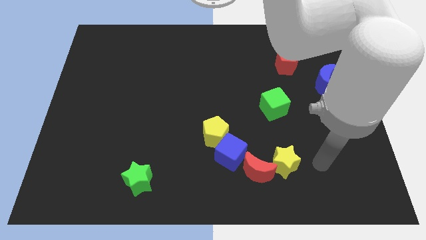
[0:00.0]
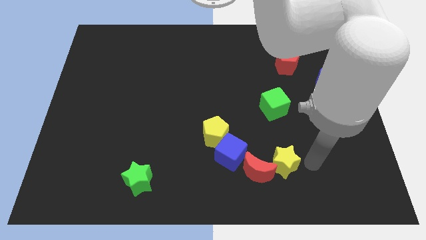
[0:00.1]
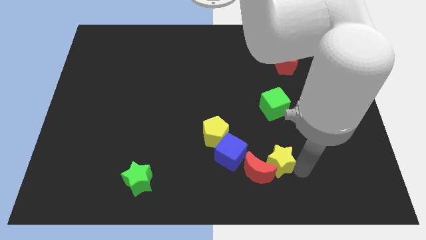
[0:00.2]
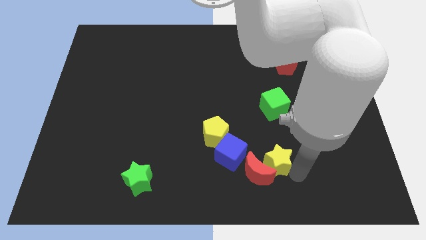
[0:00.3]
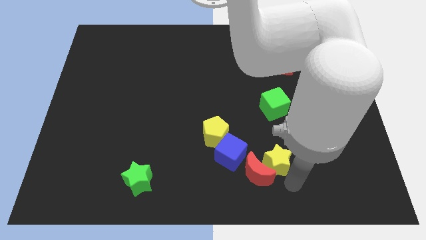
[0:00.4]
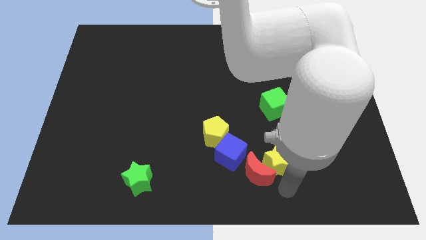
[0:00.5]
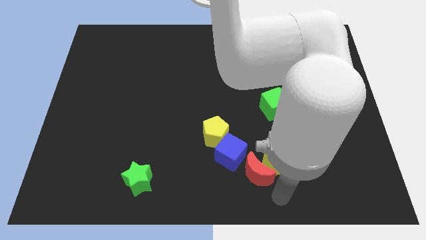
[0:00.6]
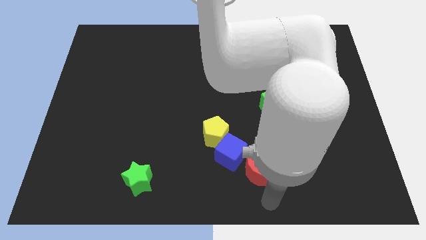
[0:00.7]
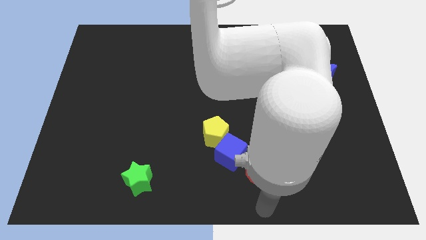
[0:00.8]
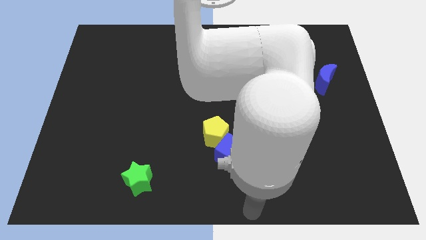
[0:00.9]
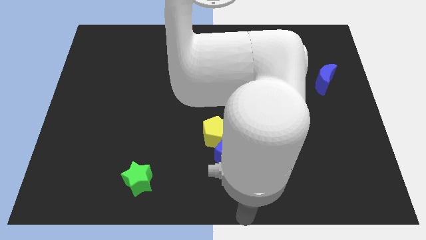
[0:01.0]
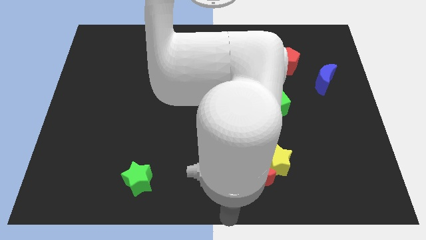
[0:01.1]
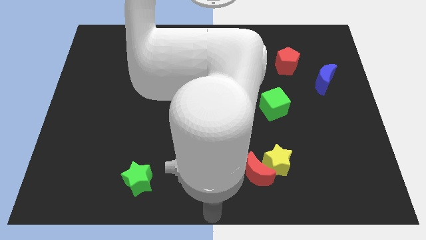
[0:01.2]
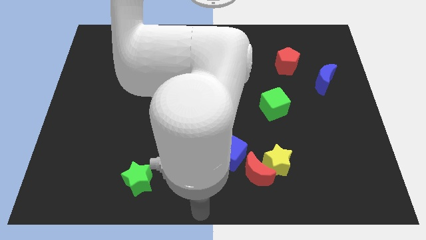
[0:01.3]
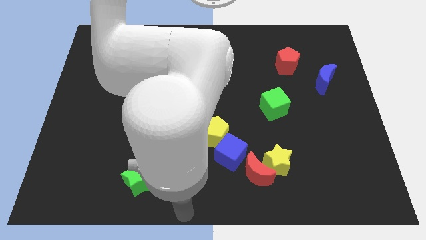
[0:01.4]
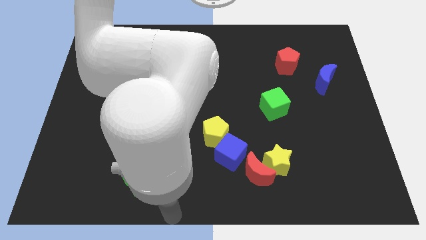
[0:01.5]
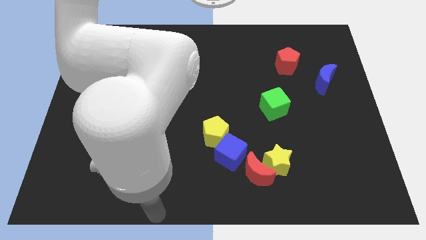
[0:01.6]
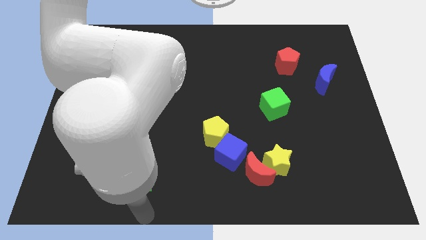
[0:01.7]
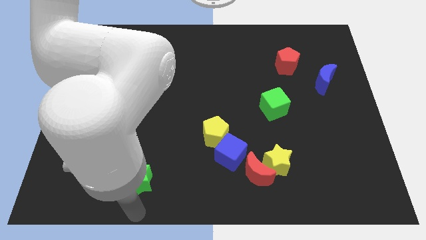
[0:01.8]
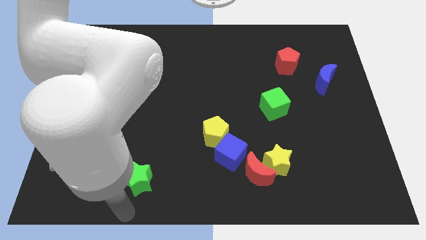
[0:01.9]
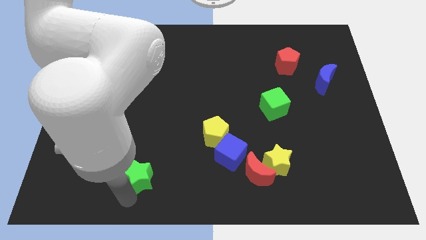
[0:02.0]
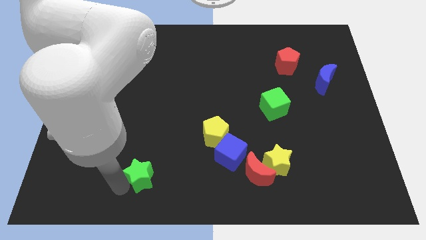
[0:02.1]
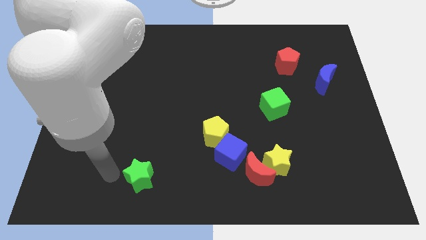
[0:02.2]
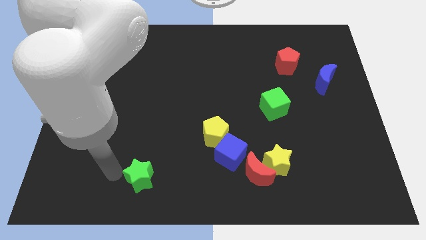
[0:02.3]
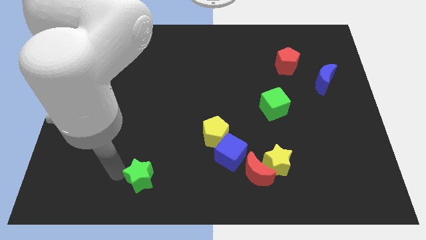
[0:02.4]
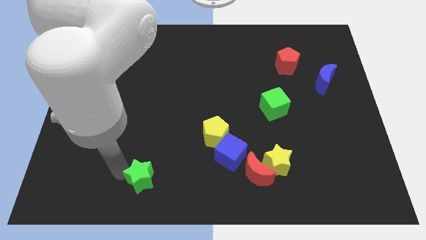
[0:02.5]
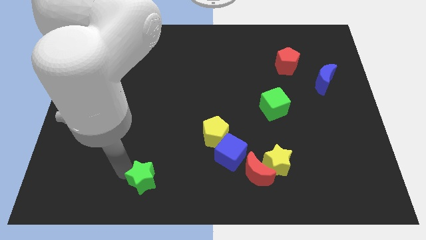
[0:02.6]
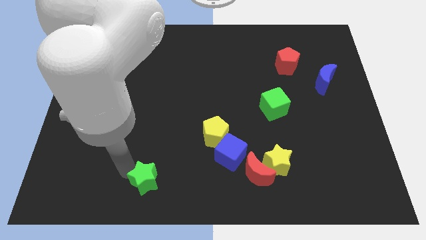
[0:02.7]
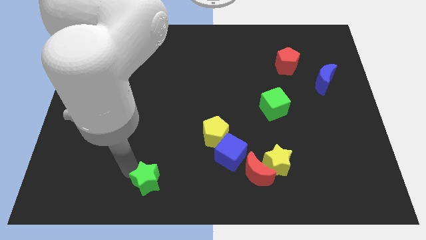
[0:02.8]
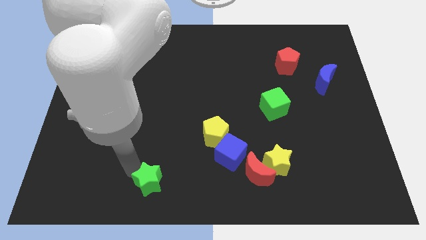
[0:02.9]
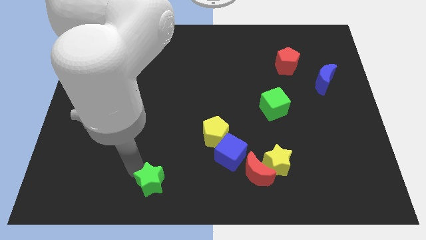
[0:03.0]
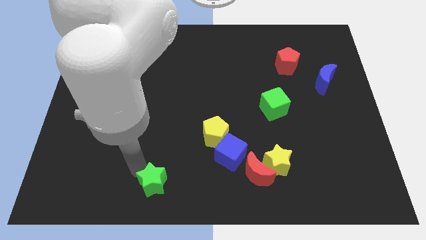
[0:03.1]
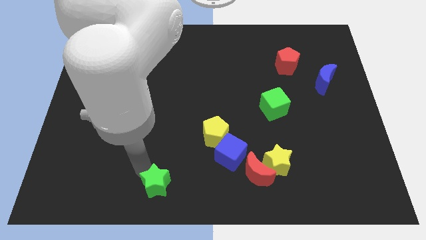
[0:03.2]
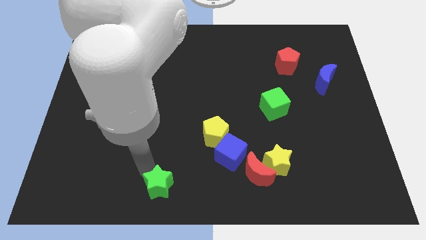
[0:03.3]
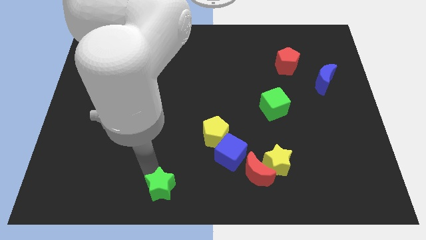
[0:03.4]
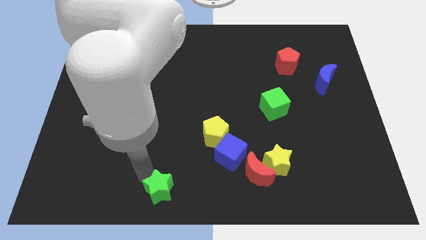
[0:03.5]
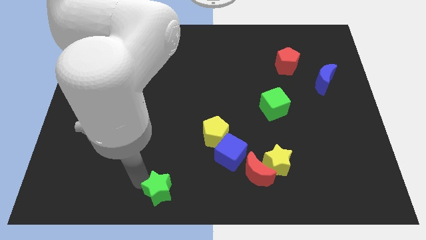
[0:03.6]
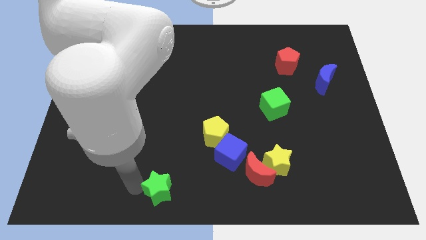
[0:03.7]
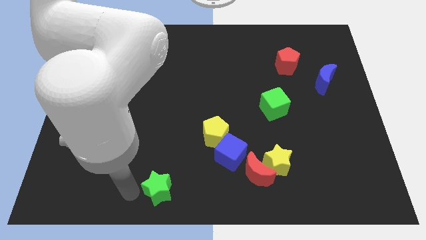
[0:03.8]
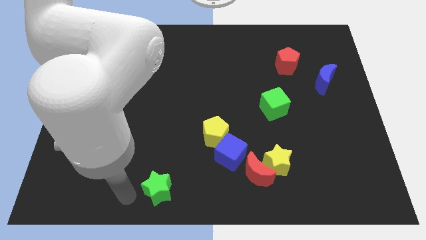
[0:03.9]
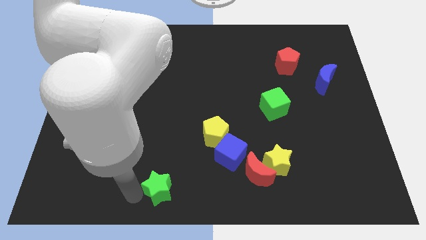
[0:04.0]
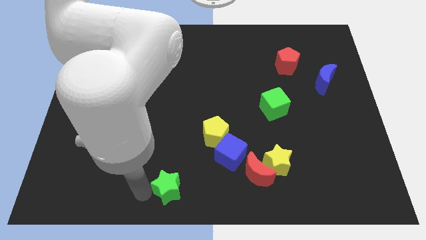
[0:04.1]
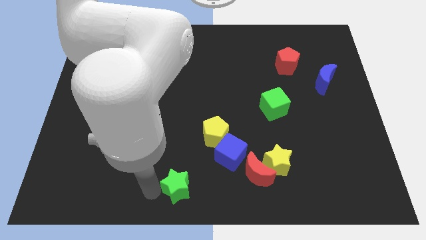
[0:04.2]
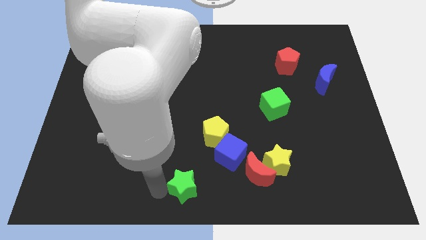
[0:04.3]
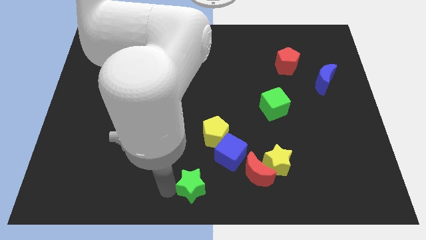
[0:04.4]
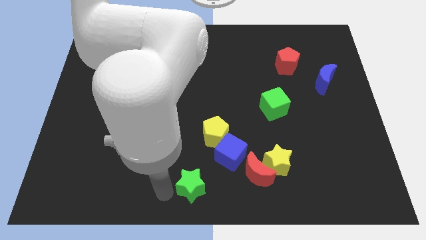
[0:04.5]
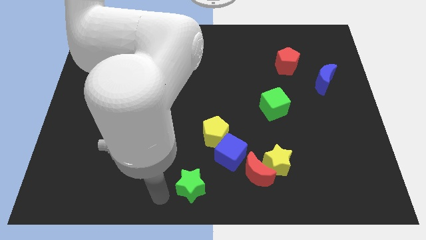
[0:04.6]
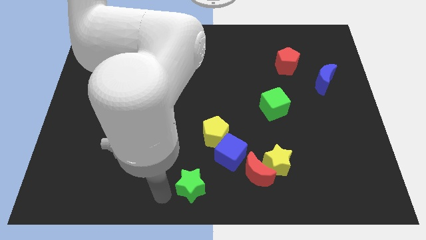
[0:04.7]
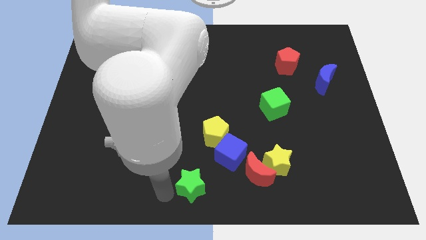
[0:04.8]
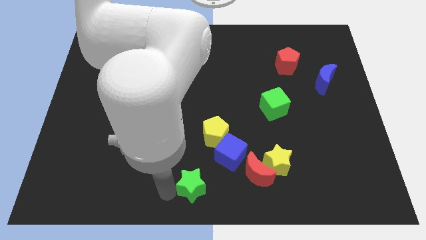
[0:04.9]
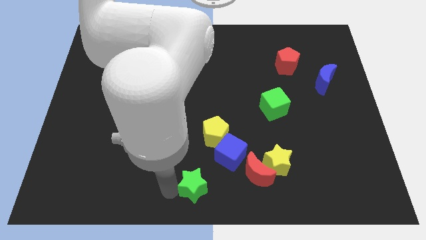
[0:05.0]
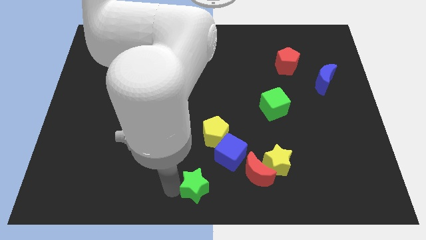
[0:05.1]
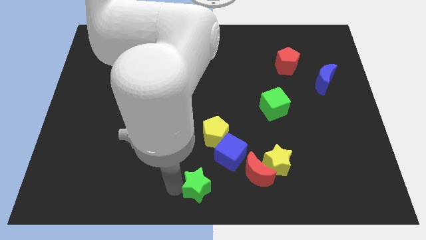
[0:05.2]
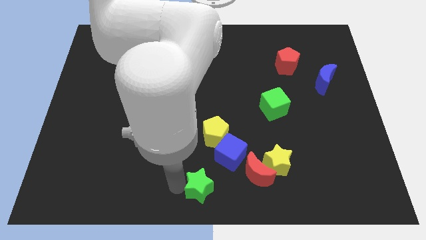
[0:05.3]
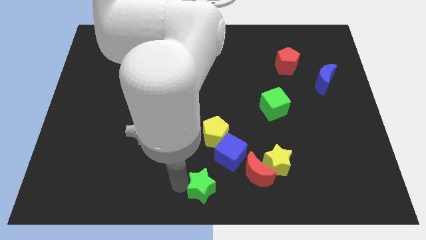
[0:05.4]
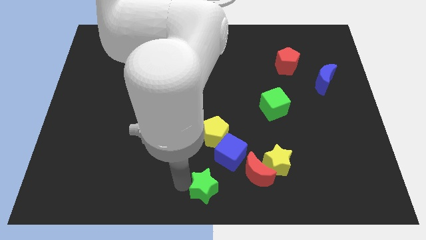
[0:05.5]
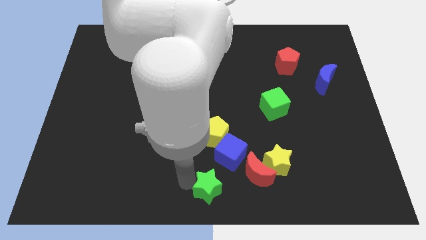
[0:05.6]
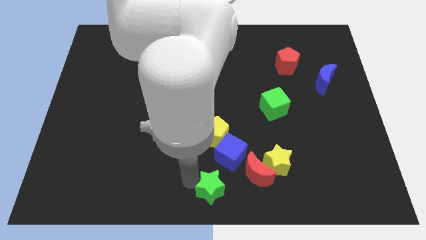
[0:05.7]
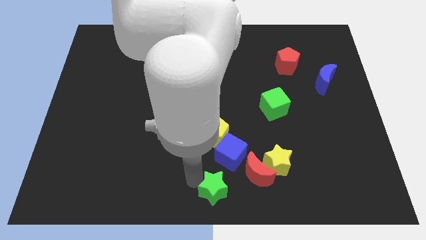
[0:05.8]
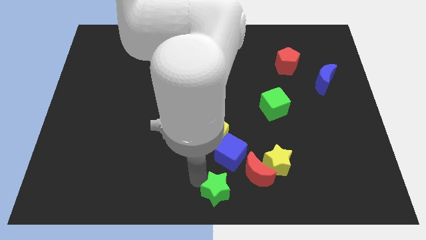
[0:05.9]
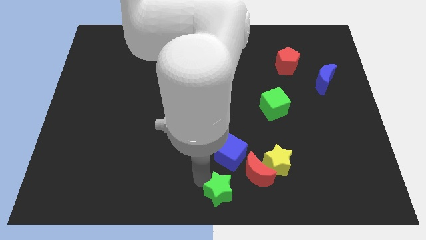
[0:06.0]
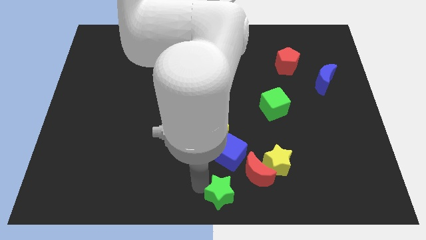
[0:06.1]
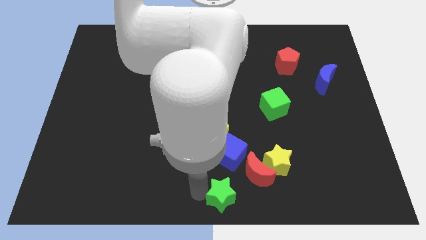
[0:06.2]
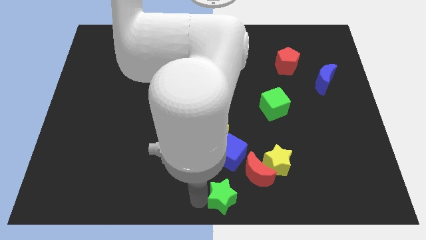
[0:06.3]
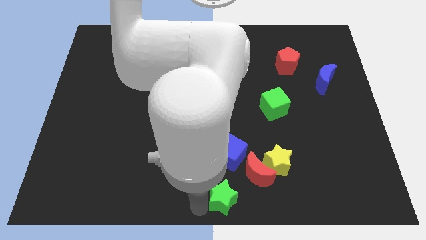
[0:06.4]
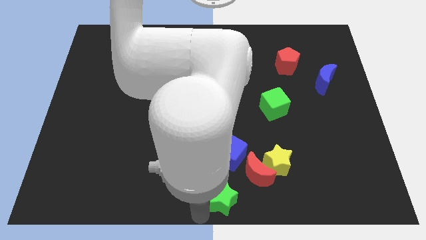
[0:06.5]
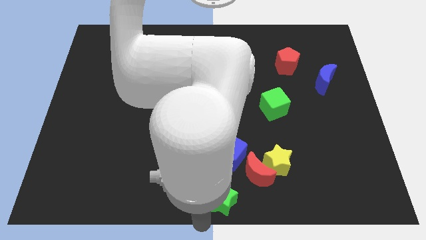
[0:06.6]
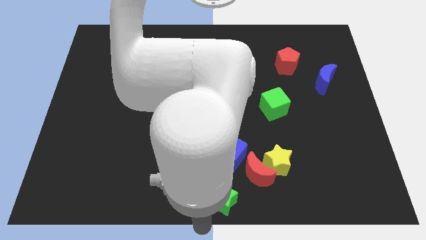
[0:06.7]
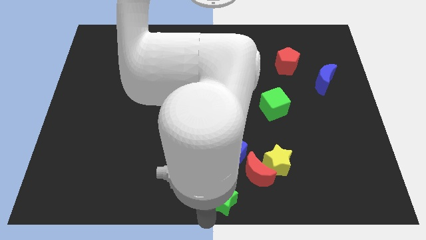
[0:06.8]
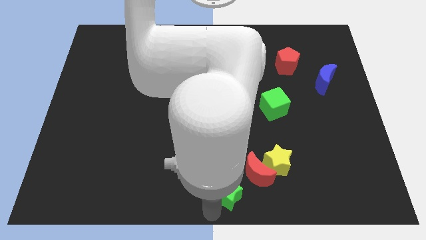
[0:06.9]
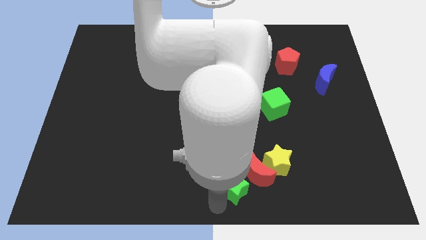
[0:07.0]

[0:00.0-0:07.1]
push the green star close to the red moon

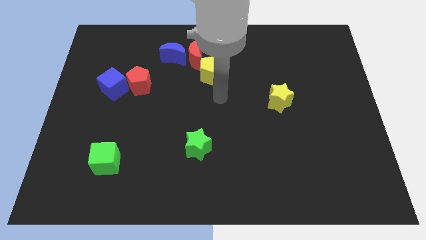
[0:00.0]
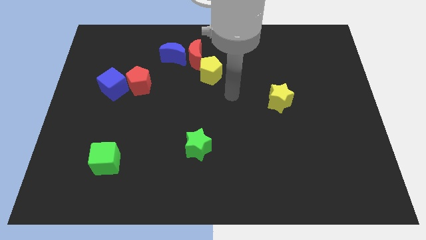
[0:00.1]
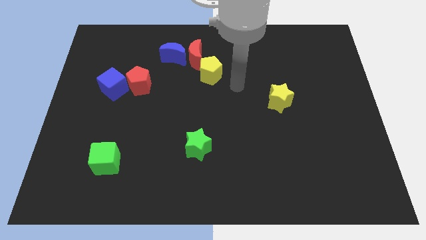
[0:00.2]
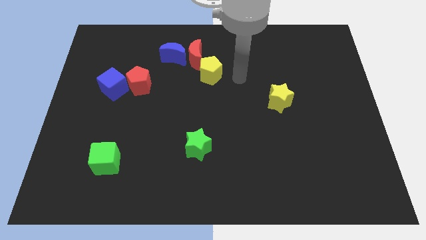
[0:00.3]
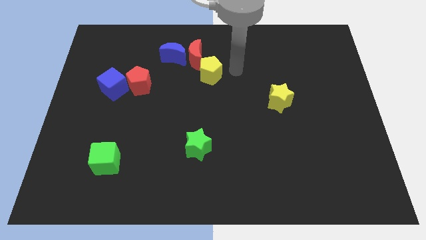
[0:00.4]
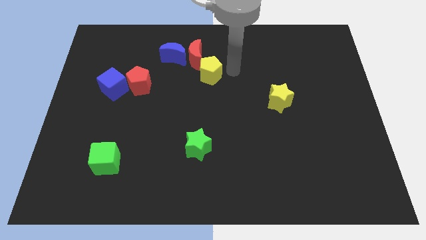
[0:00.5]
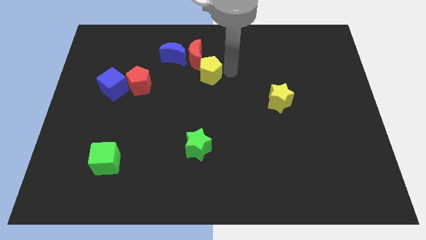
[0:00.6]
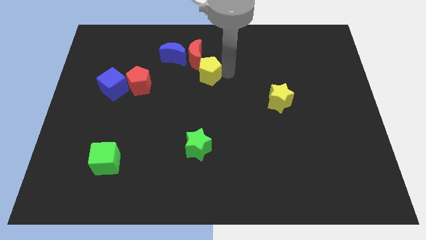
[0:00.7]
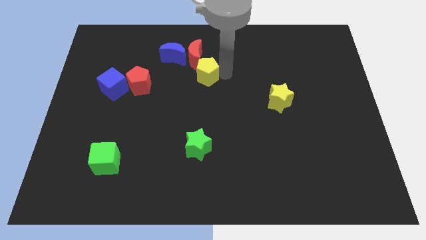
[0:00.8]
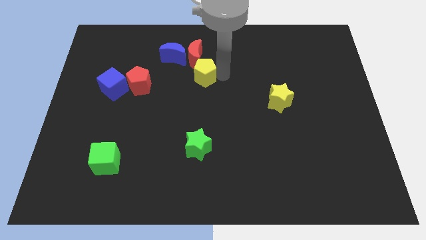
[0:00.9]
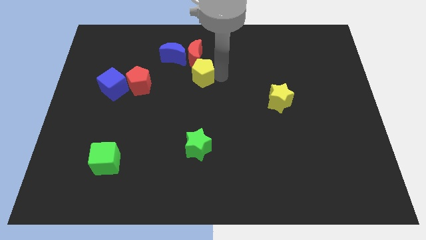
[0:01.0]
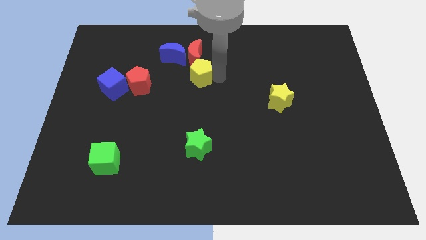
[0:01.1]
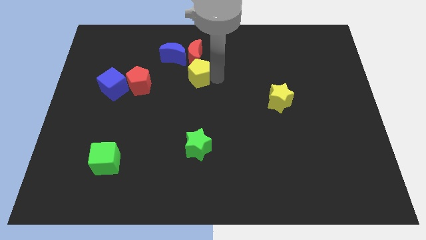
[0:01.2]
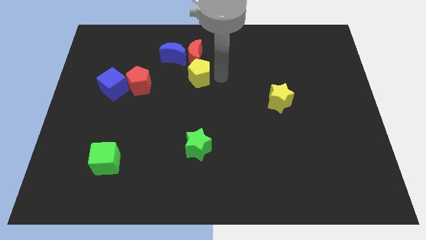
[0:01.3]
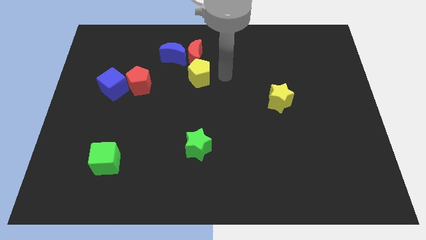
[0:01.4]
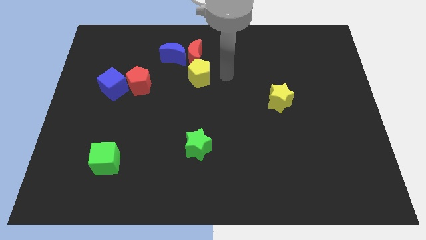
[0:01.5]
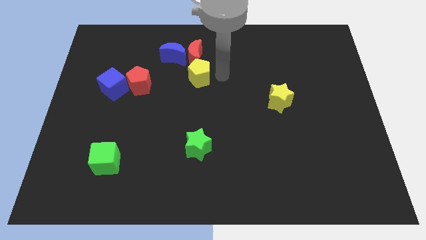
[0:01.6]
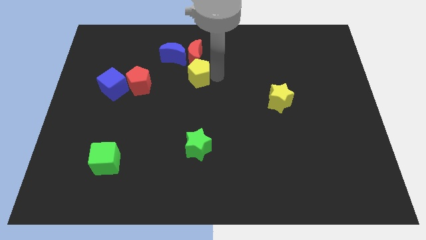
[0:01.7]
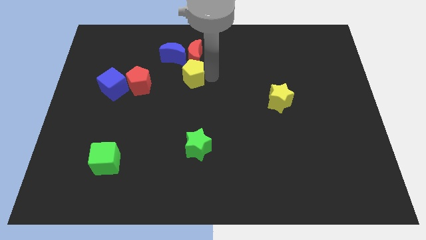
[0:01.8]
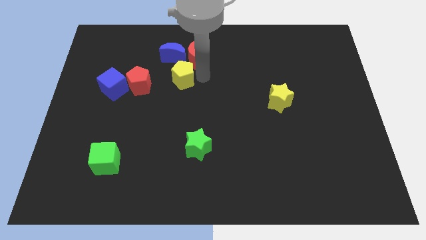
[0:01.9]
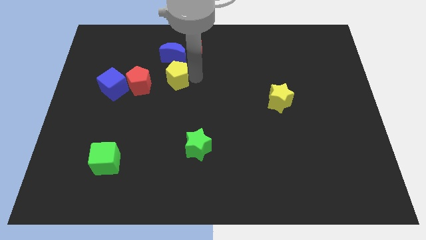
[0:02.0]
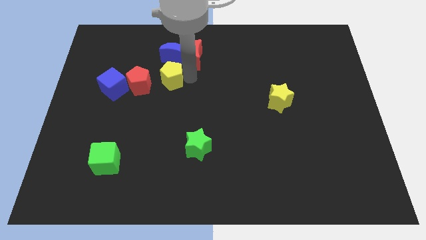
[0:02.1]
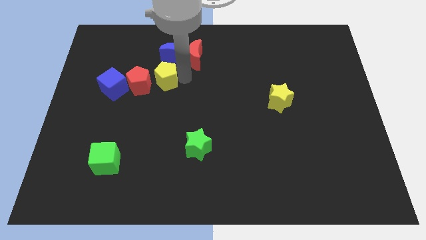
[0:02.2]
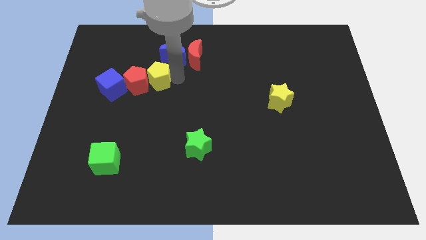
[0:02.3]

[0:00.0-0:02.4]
slide the yellow pentagon next to the red pentagon
